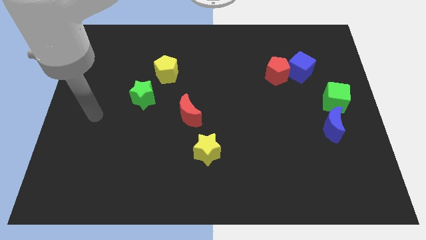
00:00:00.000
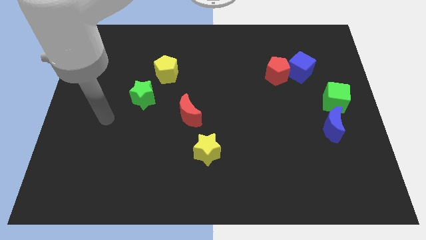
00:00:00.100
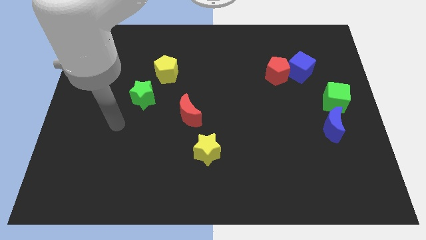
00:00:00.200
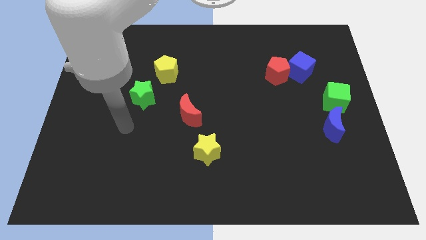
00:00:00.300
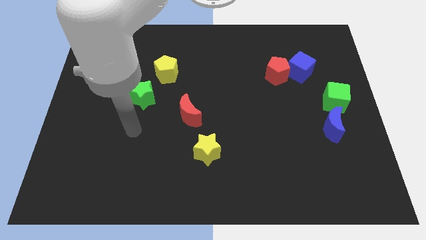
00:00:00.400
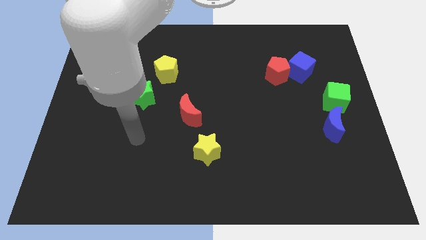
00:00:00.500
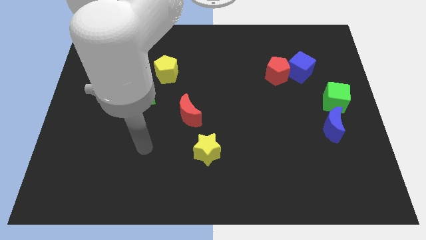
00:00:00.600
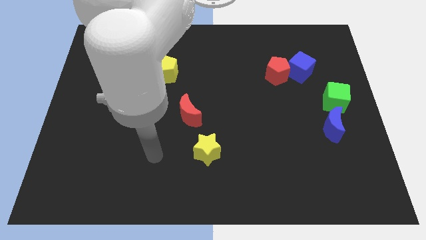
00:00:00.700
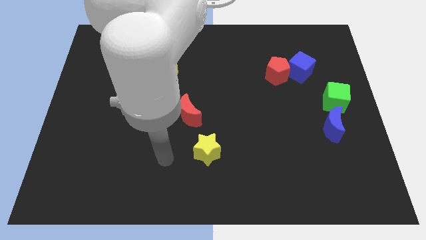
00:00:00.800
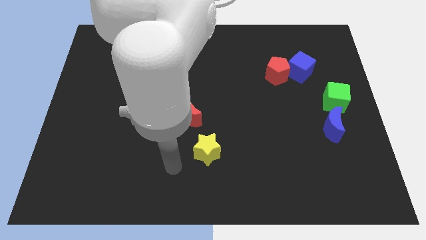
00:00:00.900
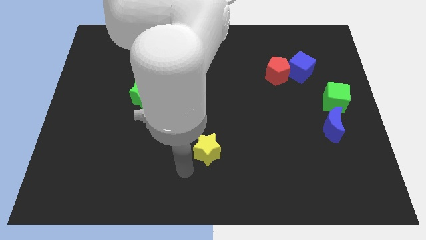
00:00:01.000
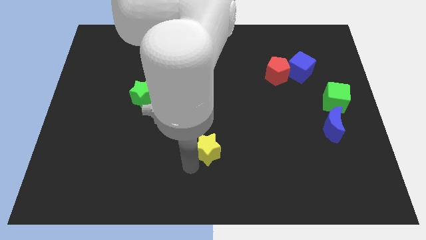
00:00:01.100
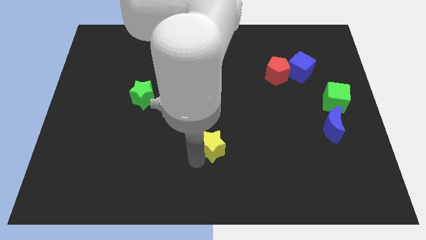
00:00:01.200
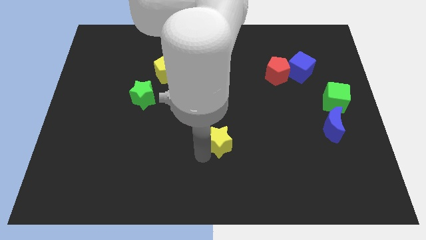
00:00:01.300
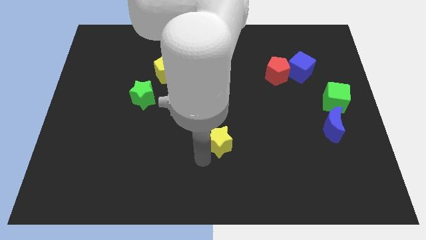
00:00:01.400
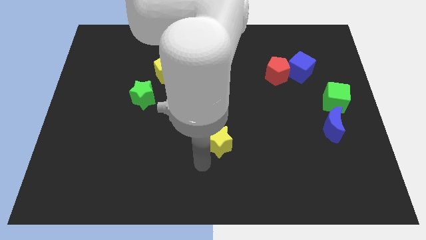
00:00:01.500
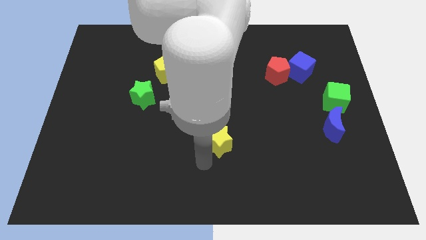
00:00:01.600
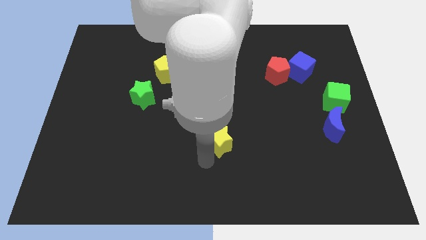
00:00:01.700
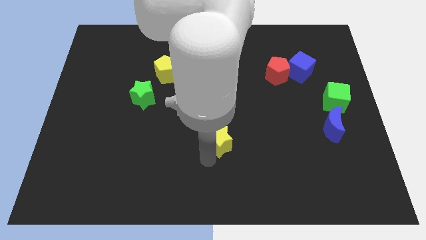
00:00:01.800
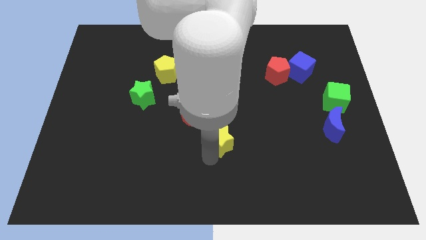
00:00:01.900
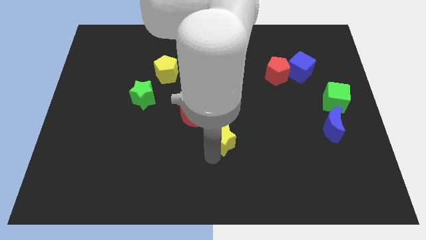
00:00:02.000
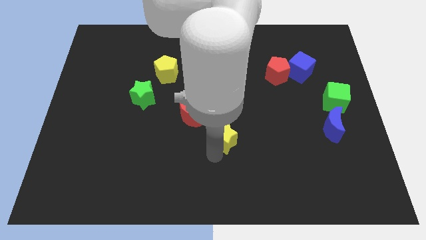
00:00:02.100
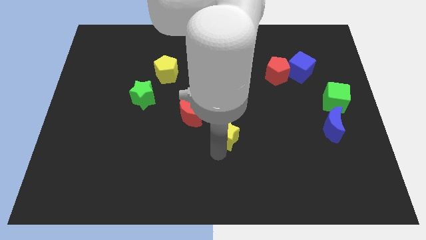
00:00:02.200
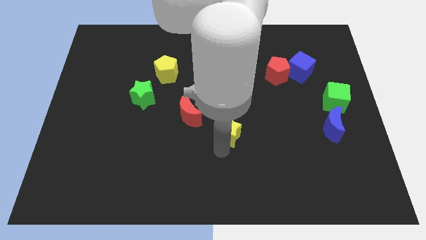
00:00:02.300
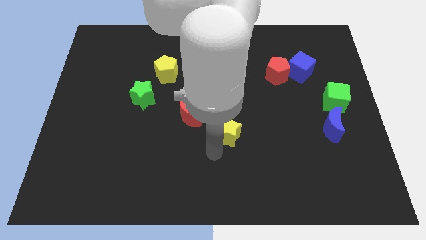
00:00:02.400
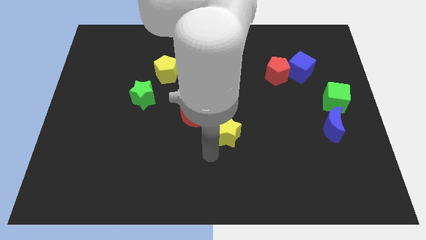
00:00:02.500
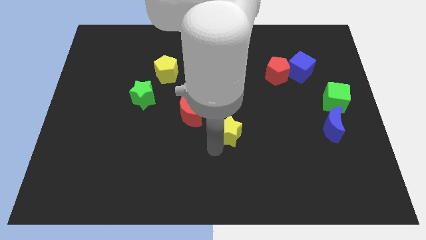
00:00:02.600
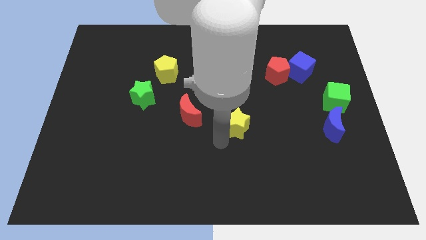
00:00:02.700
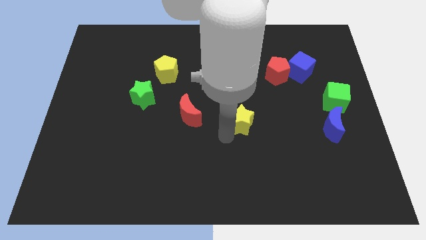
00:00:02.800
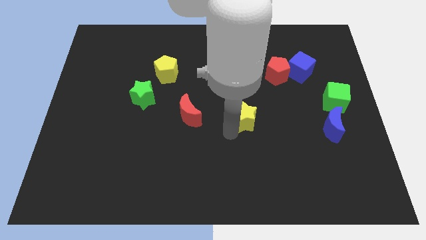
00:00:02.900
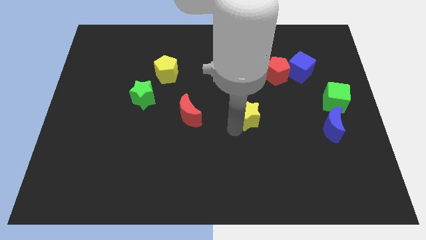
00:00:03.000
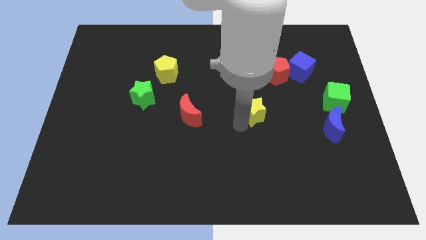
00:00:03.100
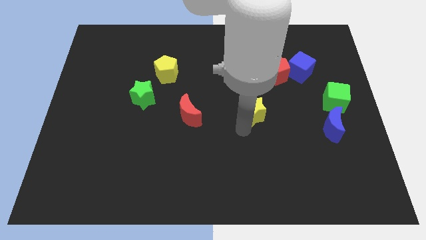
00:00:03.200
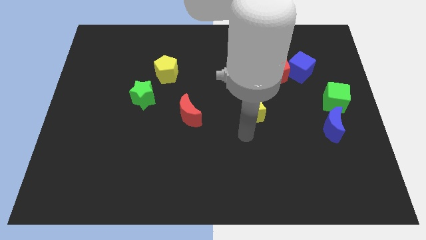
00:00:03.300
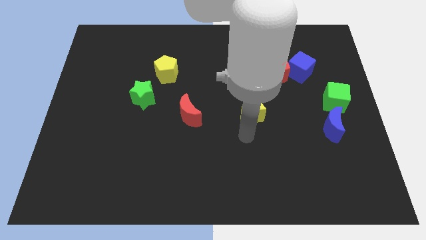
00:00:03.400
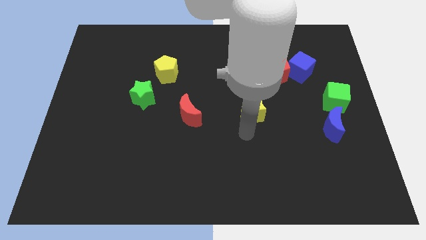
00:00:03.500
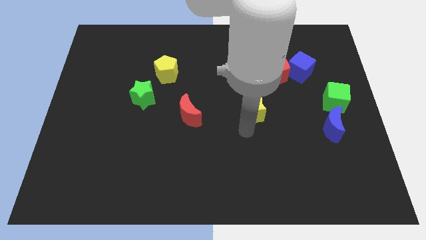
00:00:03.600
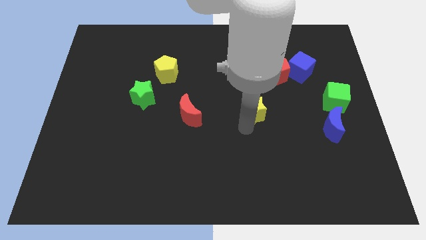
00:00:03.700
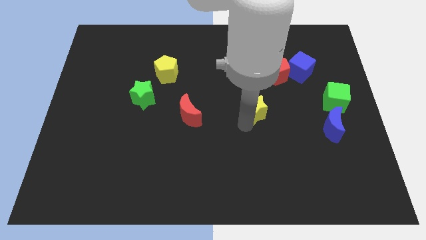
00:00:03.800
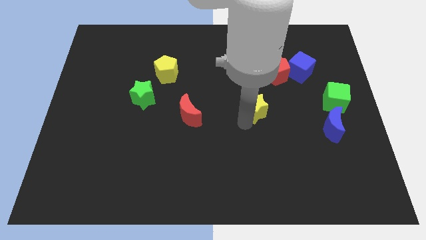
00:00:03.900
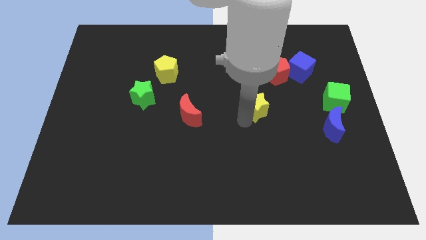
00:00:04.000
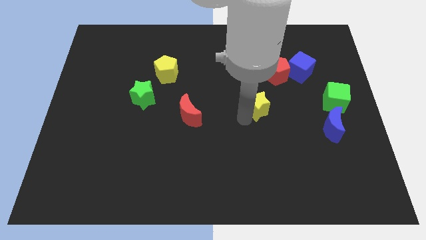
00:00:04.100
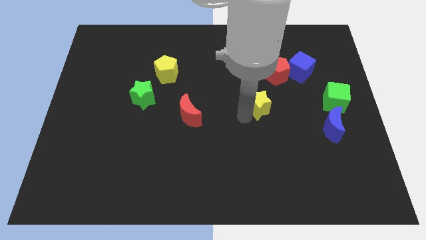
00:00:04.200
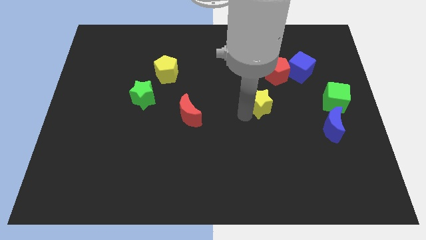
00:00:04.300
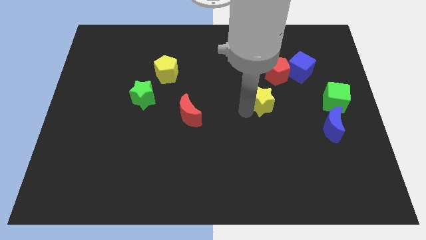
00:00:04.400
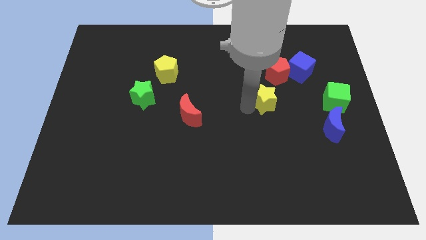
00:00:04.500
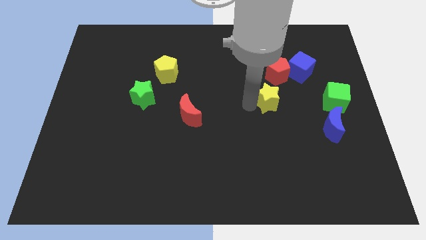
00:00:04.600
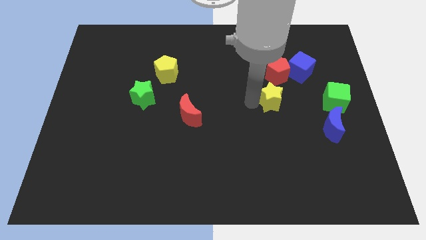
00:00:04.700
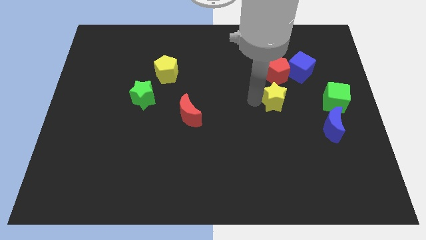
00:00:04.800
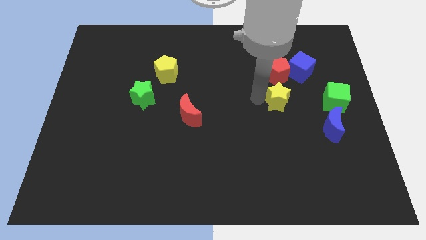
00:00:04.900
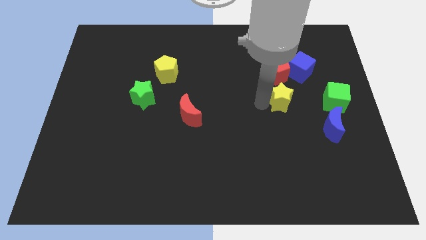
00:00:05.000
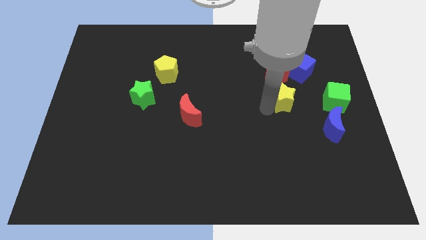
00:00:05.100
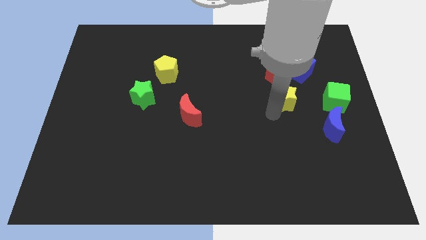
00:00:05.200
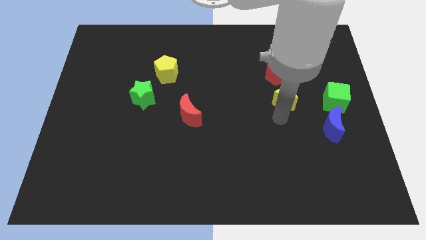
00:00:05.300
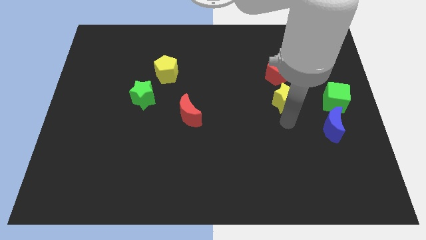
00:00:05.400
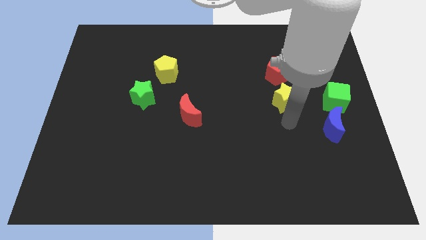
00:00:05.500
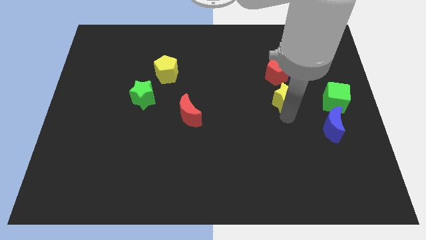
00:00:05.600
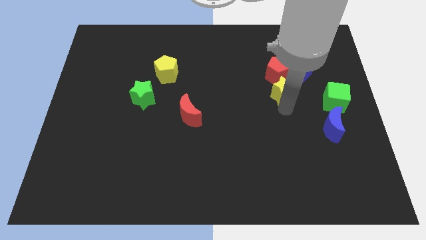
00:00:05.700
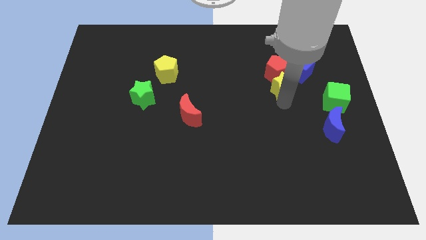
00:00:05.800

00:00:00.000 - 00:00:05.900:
put the yellow star close to the red pentagon

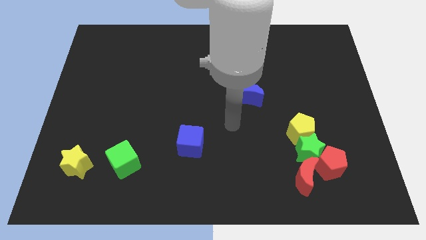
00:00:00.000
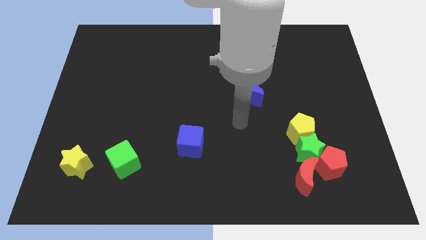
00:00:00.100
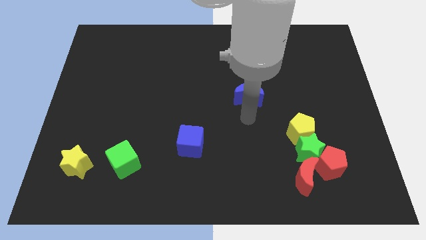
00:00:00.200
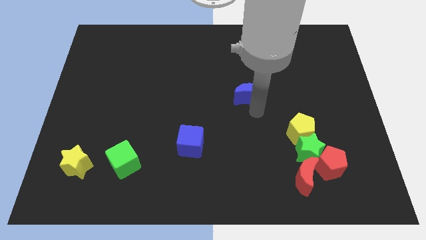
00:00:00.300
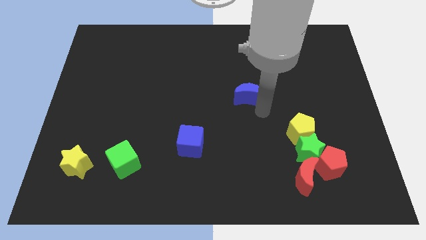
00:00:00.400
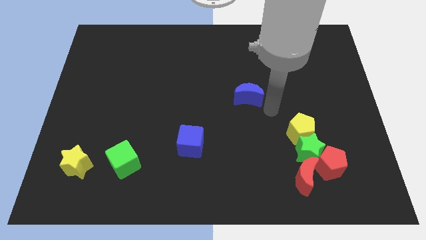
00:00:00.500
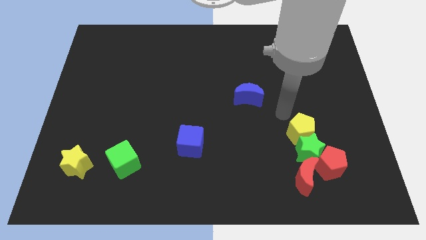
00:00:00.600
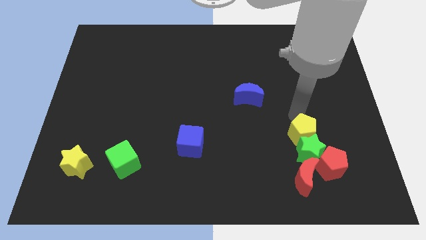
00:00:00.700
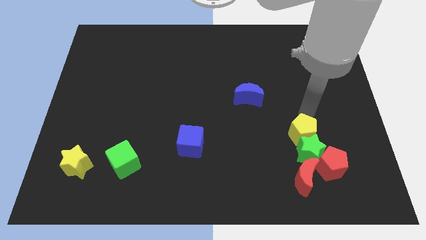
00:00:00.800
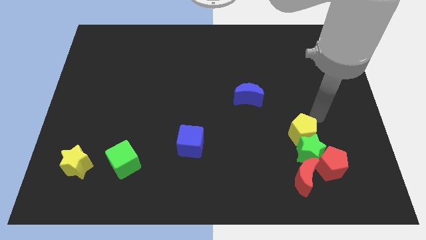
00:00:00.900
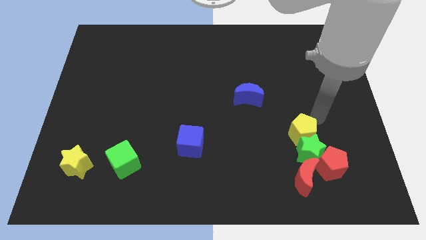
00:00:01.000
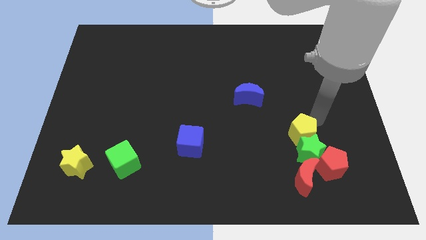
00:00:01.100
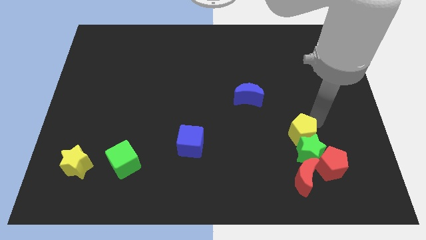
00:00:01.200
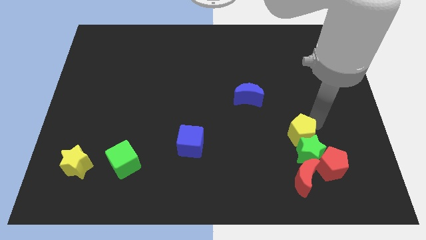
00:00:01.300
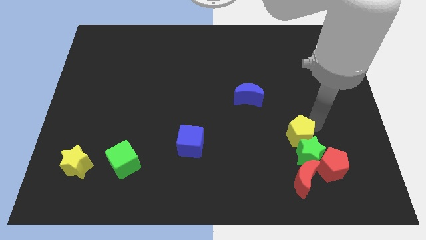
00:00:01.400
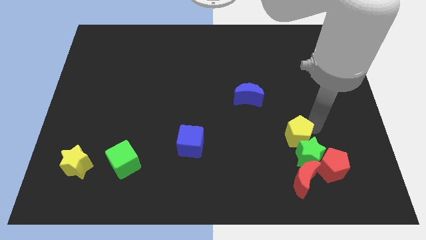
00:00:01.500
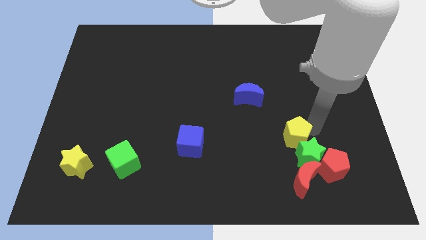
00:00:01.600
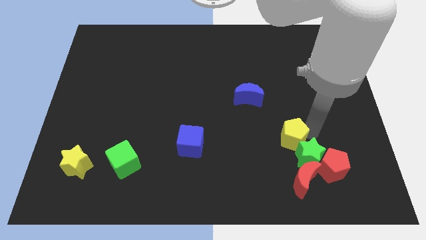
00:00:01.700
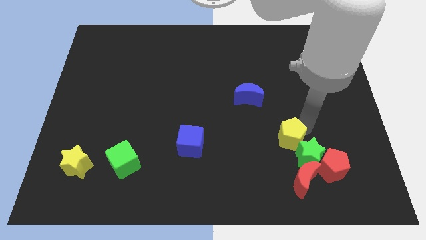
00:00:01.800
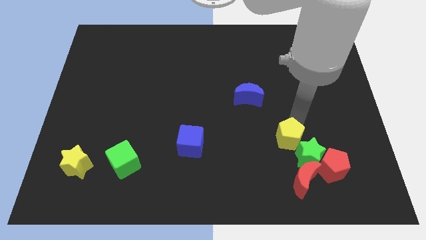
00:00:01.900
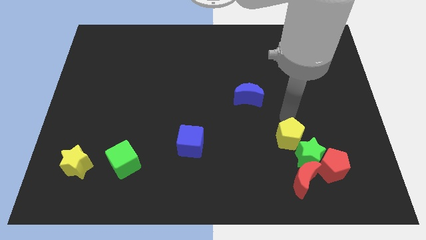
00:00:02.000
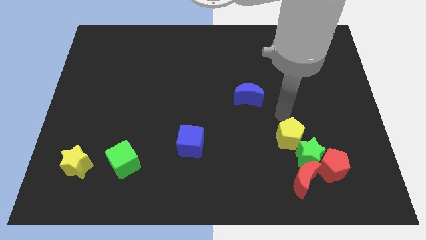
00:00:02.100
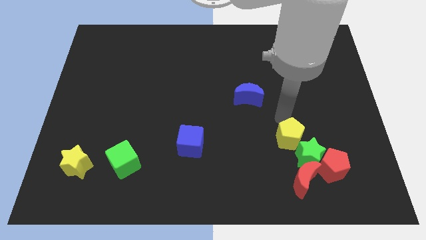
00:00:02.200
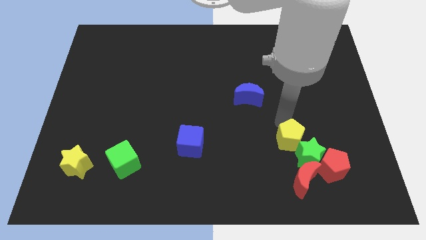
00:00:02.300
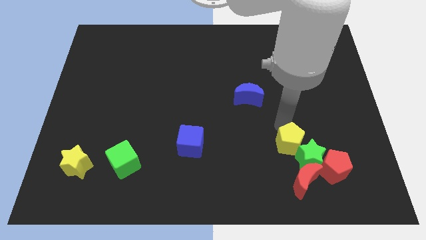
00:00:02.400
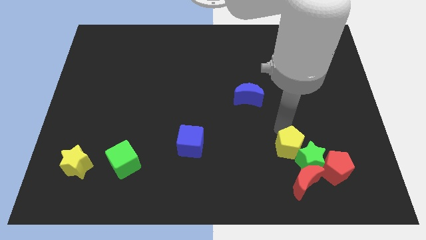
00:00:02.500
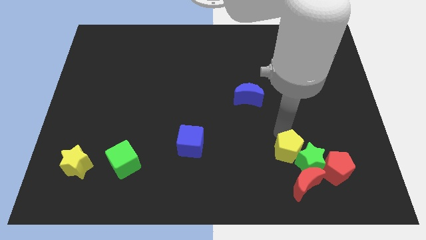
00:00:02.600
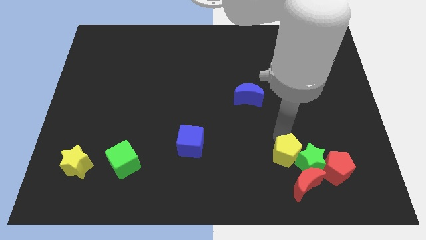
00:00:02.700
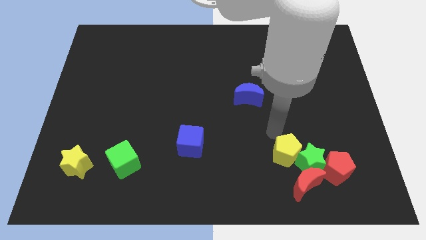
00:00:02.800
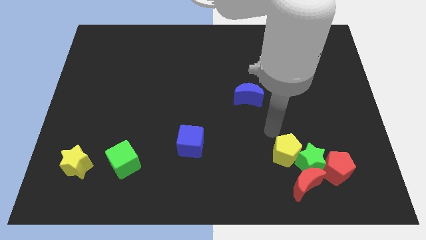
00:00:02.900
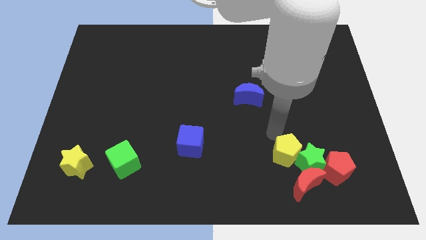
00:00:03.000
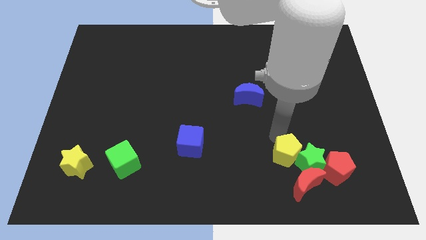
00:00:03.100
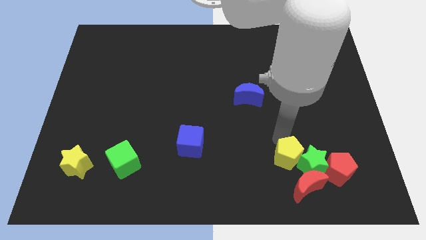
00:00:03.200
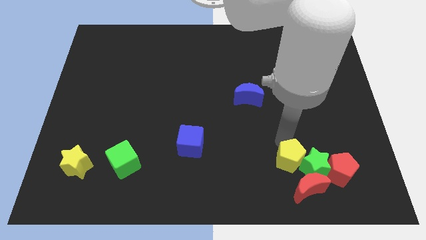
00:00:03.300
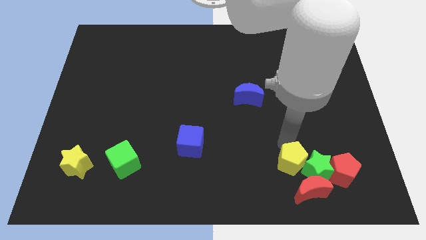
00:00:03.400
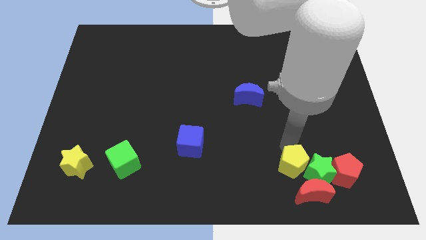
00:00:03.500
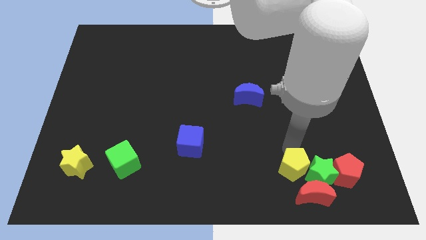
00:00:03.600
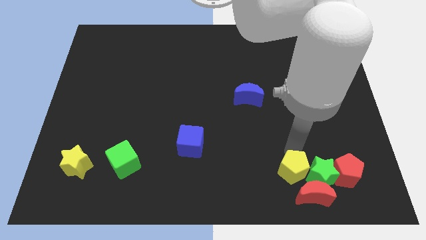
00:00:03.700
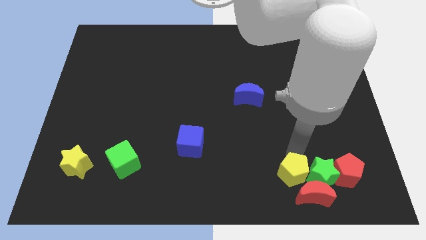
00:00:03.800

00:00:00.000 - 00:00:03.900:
push the yellow pentagon close to the red moon
